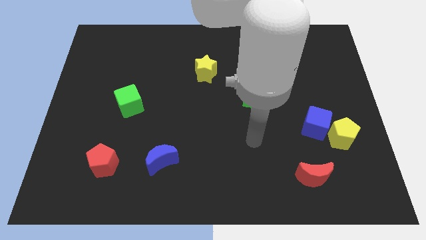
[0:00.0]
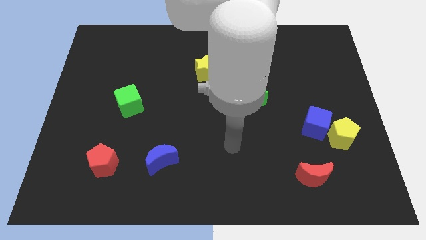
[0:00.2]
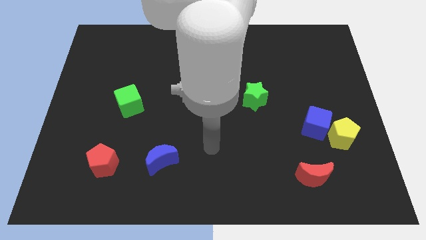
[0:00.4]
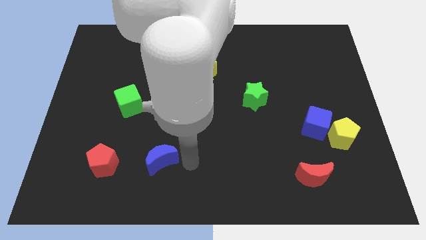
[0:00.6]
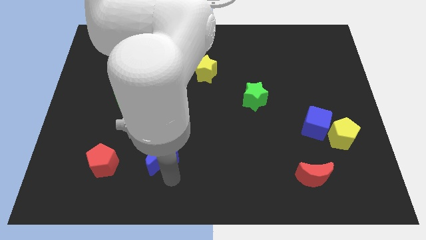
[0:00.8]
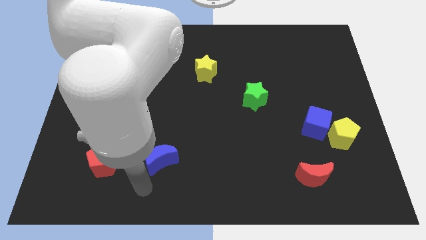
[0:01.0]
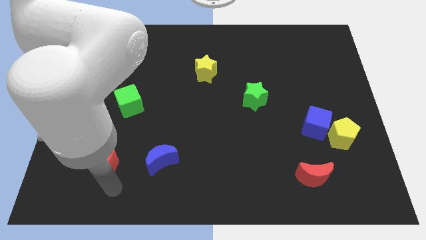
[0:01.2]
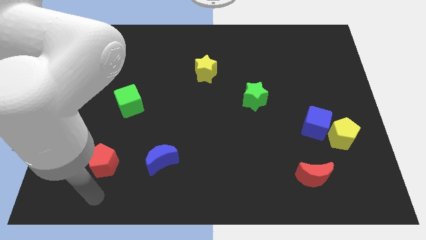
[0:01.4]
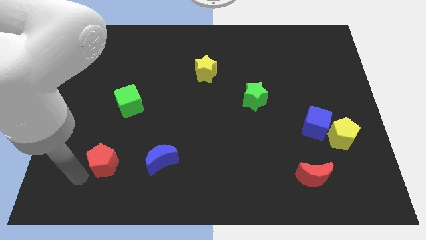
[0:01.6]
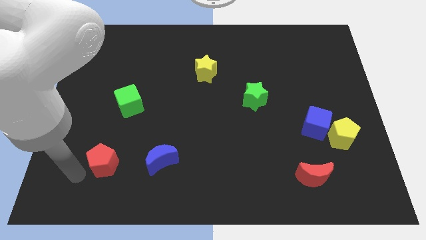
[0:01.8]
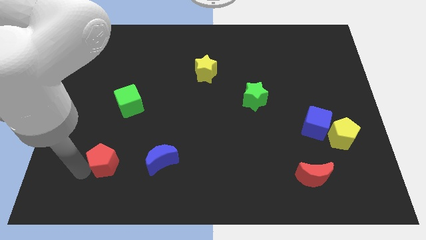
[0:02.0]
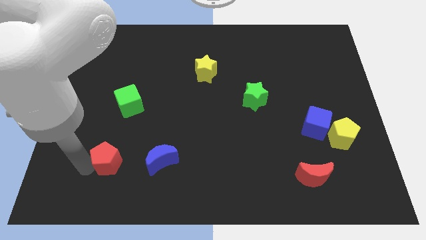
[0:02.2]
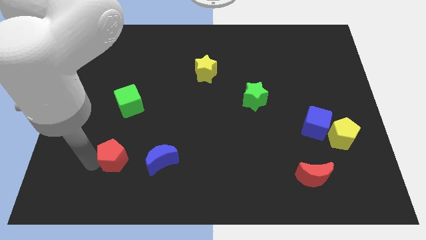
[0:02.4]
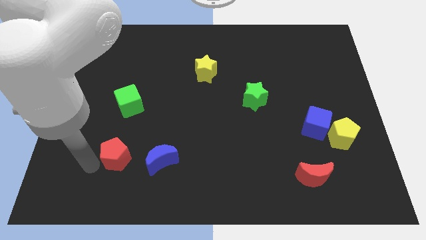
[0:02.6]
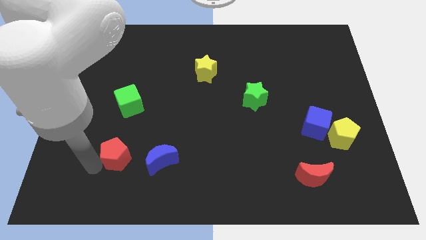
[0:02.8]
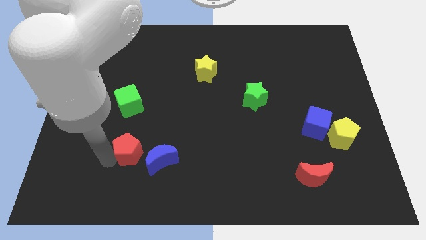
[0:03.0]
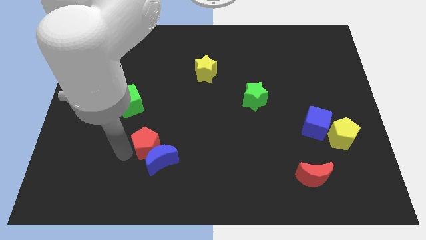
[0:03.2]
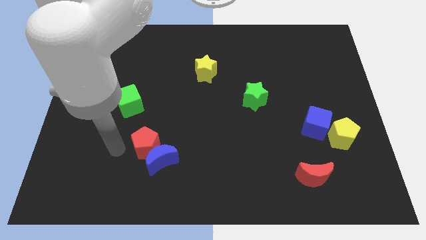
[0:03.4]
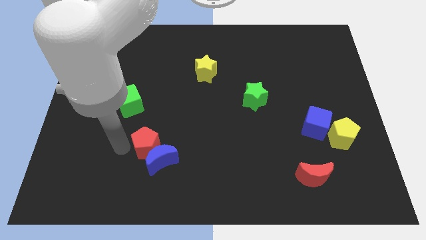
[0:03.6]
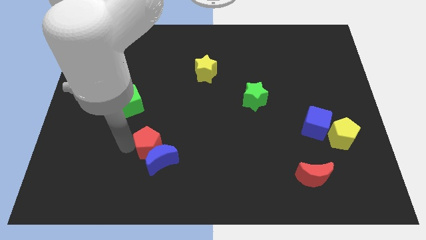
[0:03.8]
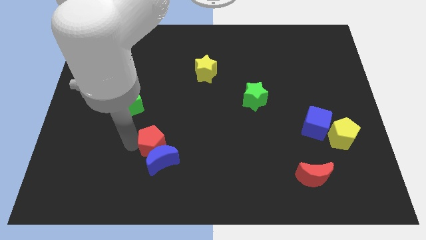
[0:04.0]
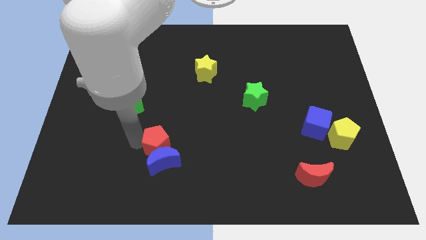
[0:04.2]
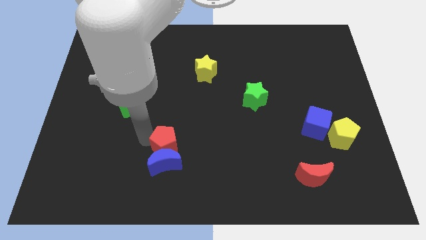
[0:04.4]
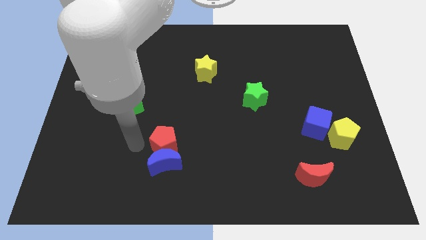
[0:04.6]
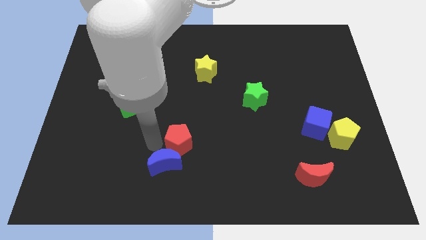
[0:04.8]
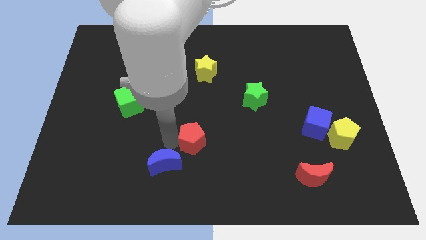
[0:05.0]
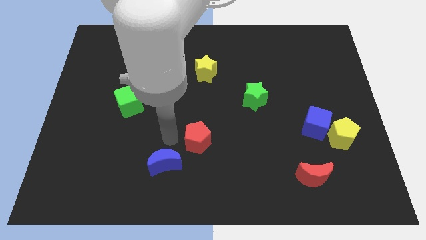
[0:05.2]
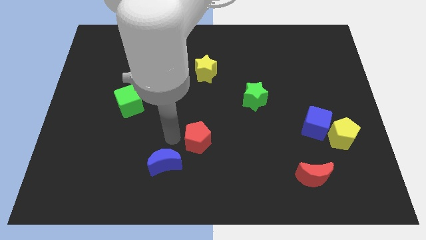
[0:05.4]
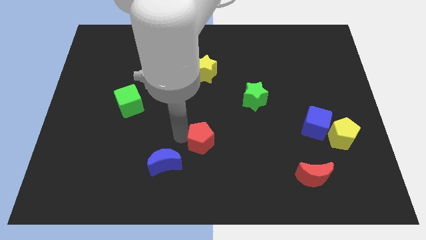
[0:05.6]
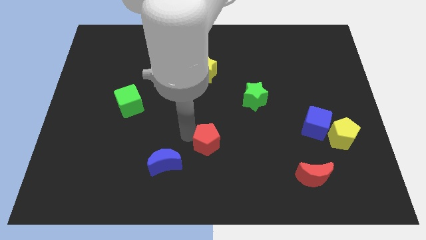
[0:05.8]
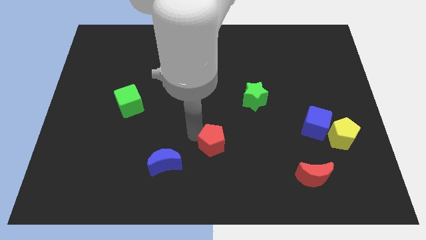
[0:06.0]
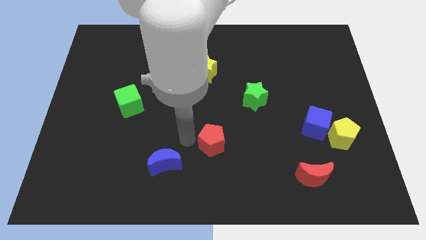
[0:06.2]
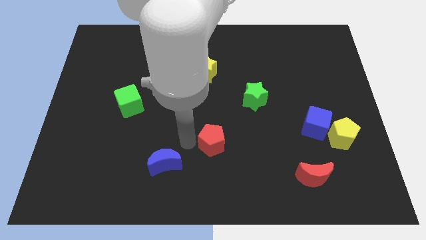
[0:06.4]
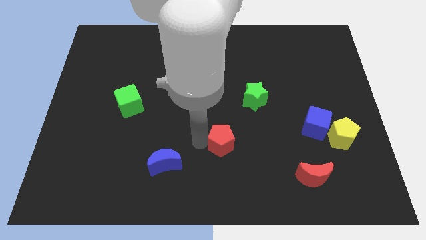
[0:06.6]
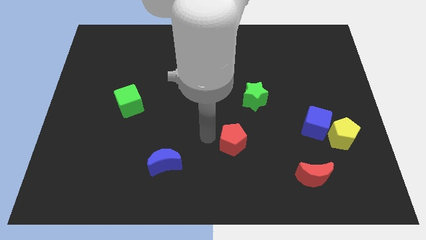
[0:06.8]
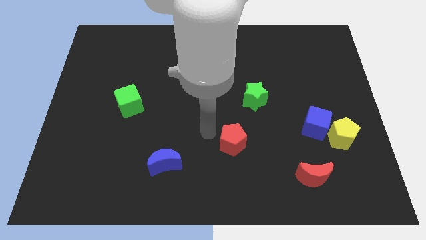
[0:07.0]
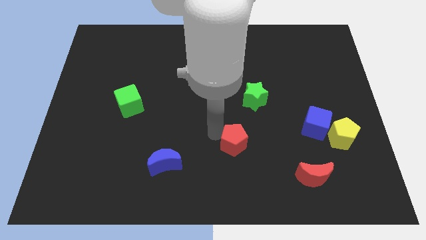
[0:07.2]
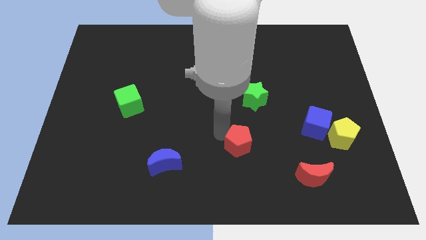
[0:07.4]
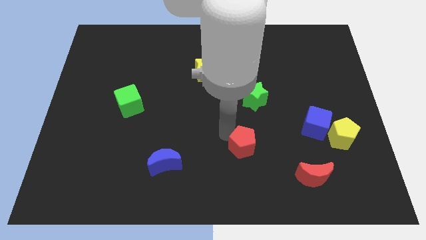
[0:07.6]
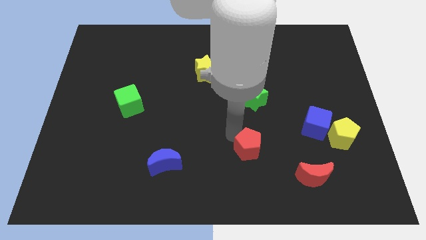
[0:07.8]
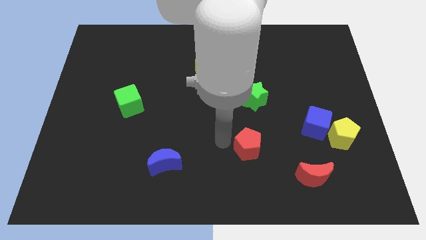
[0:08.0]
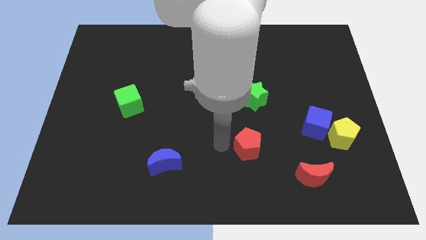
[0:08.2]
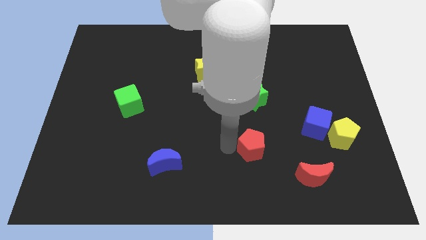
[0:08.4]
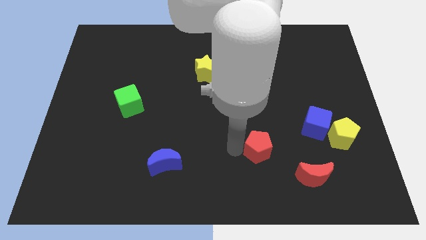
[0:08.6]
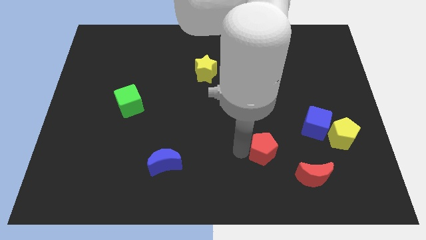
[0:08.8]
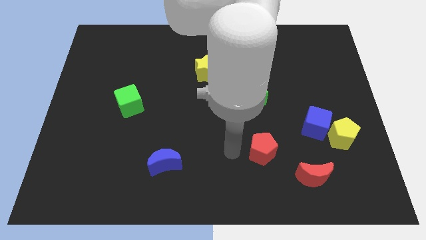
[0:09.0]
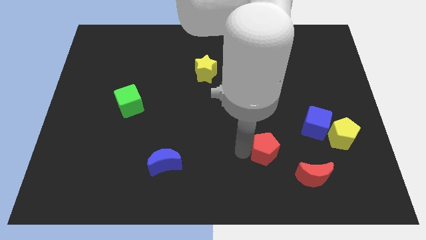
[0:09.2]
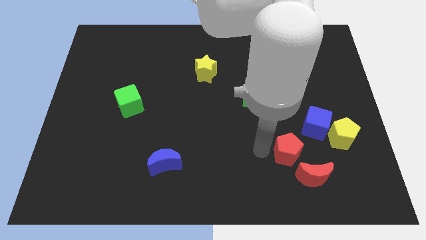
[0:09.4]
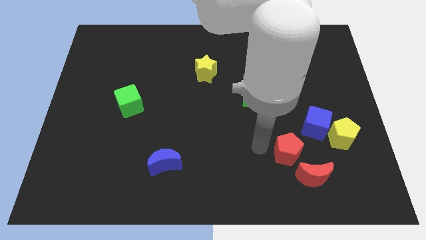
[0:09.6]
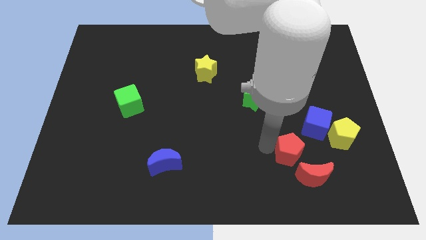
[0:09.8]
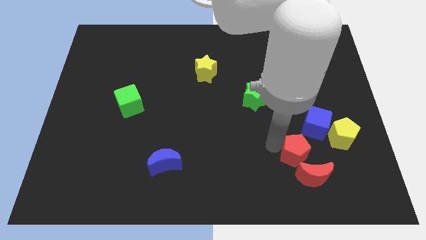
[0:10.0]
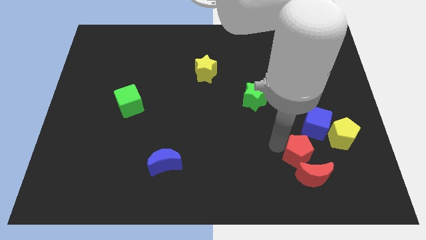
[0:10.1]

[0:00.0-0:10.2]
slide the red pentagon diagonally down and to the left of the yellow pentagon

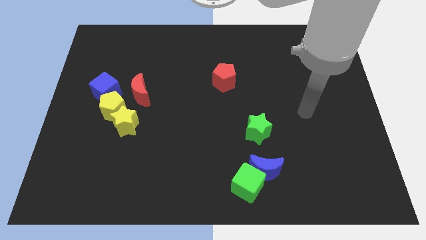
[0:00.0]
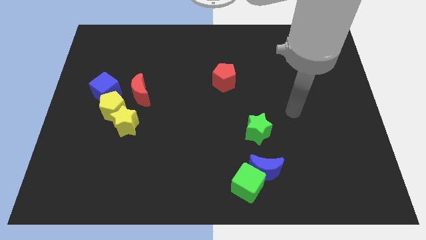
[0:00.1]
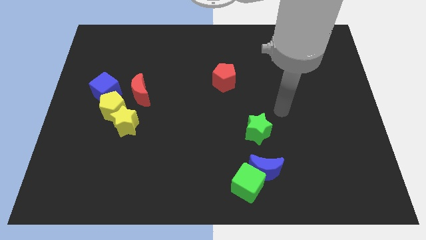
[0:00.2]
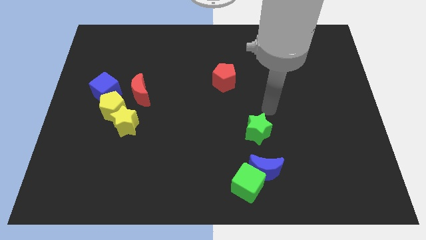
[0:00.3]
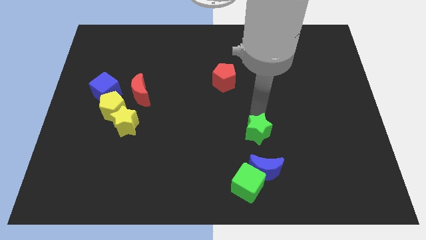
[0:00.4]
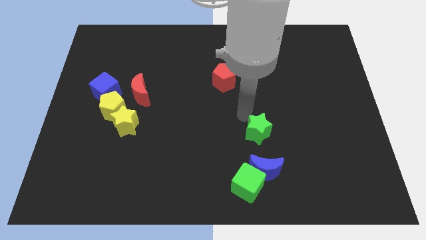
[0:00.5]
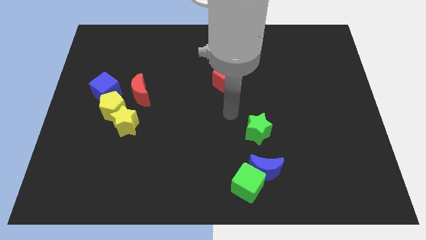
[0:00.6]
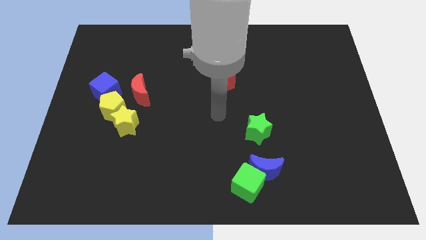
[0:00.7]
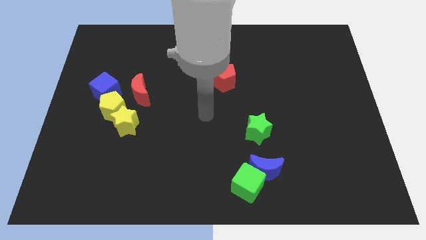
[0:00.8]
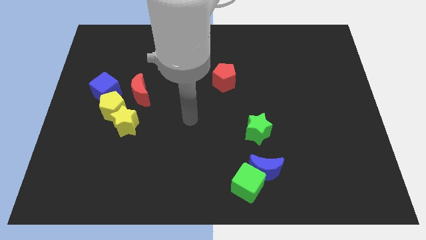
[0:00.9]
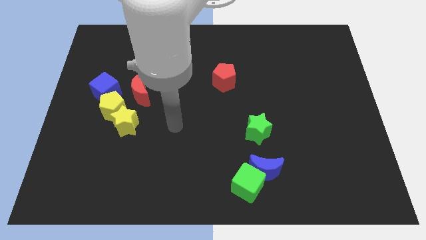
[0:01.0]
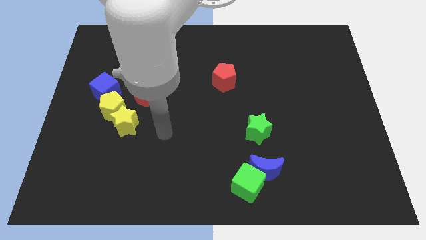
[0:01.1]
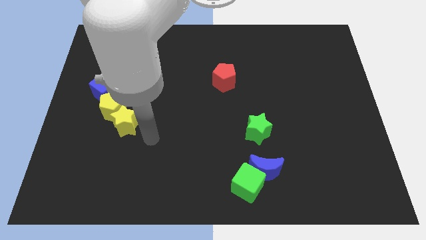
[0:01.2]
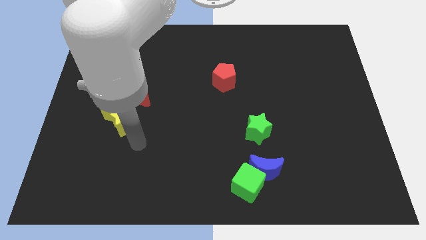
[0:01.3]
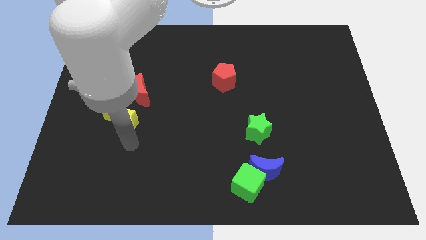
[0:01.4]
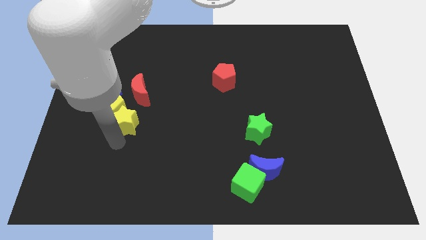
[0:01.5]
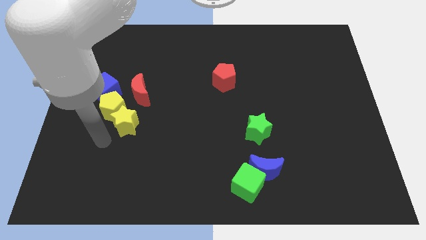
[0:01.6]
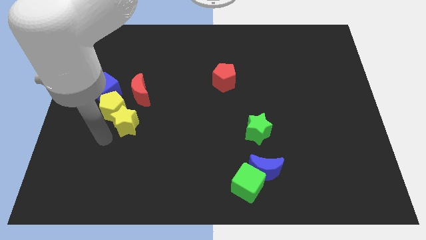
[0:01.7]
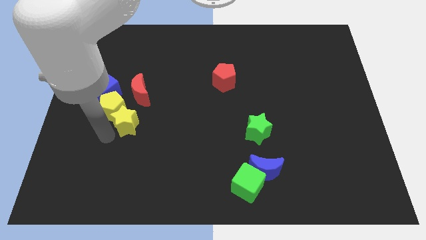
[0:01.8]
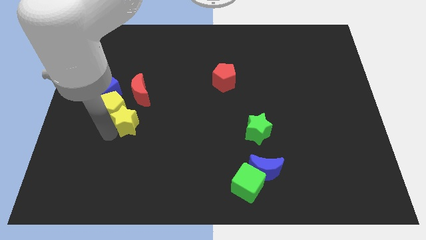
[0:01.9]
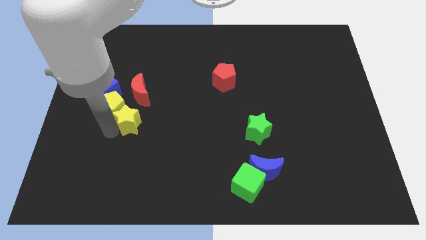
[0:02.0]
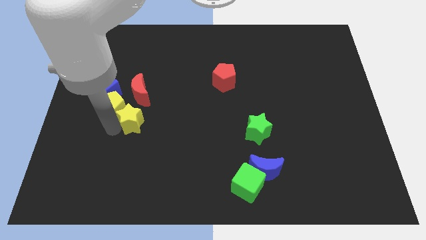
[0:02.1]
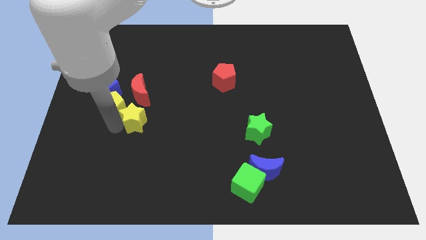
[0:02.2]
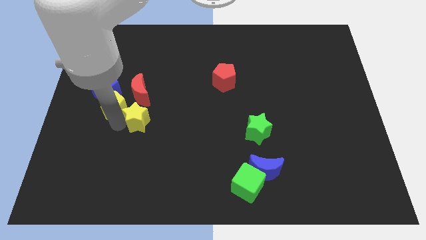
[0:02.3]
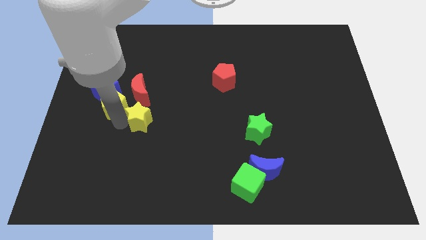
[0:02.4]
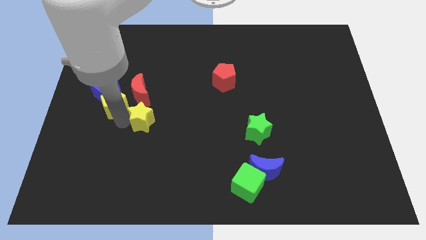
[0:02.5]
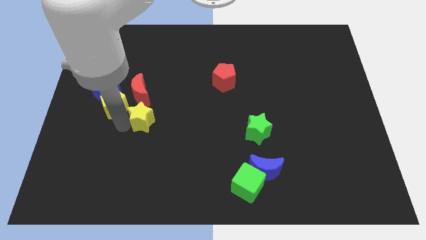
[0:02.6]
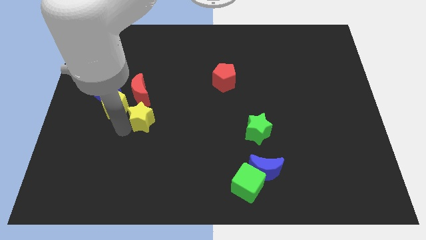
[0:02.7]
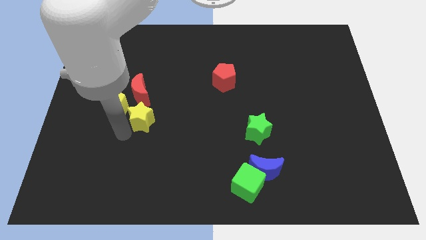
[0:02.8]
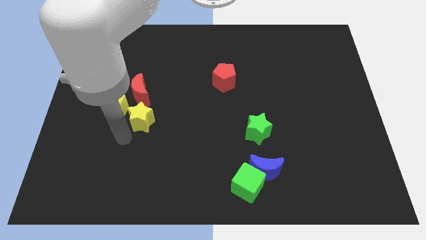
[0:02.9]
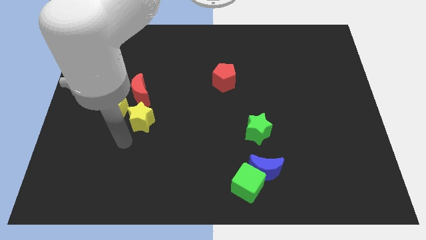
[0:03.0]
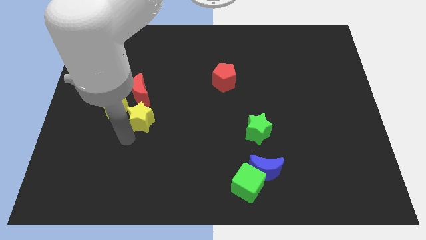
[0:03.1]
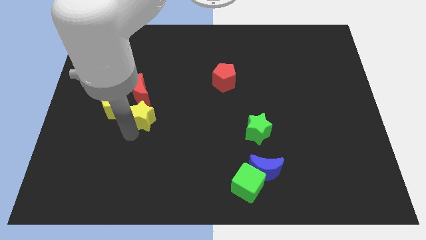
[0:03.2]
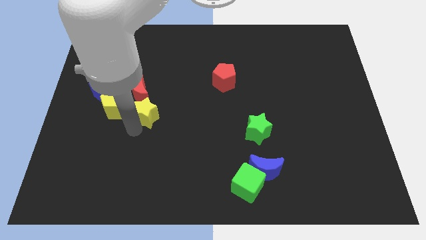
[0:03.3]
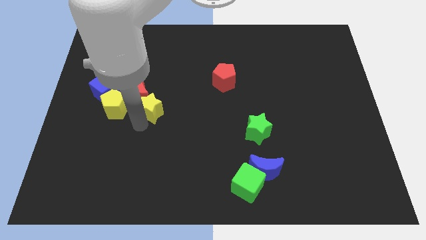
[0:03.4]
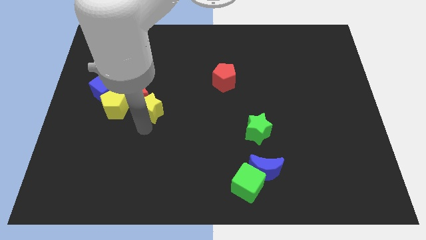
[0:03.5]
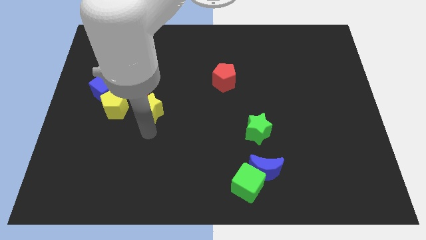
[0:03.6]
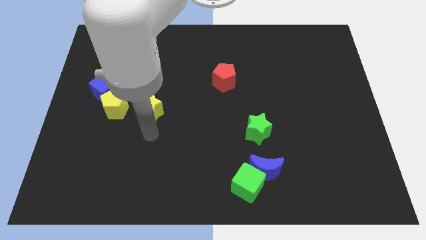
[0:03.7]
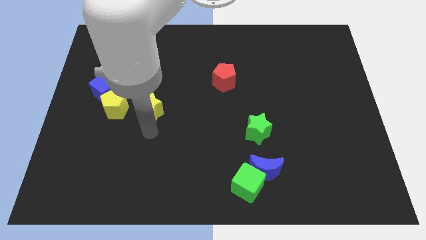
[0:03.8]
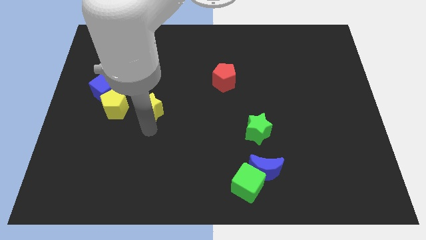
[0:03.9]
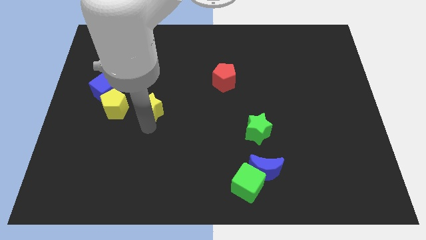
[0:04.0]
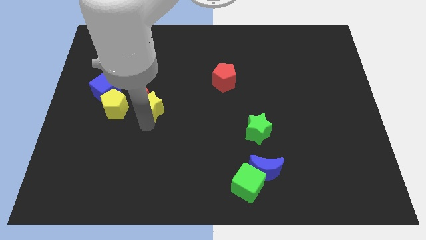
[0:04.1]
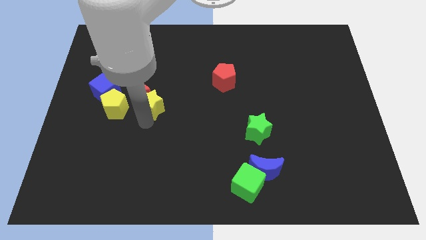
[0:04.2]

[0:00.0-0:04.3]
put the yellow star just right of the blue cube
